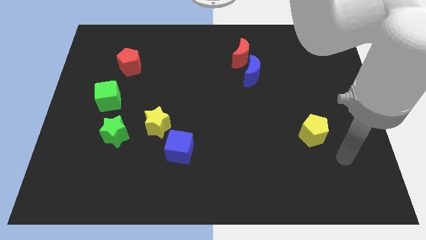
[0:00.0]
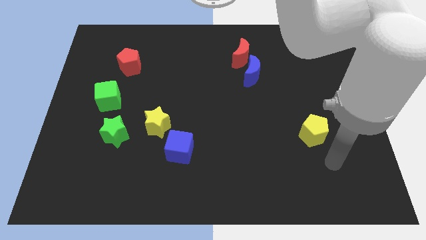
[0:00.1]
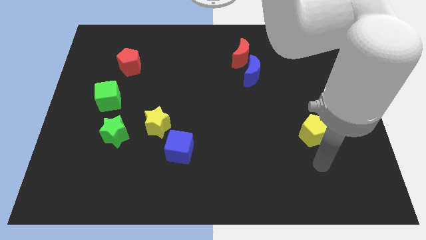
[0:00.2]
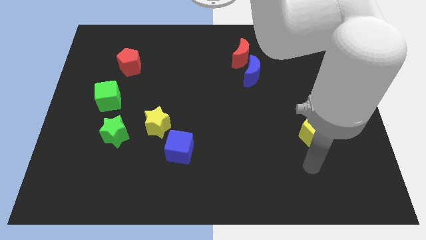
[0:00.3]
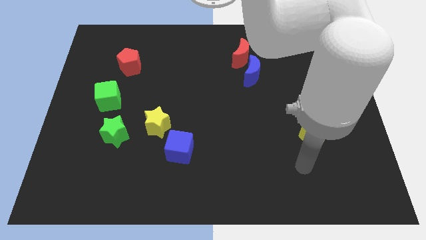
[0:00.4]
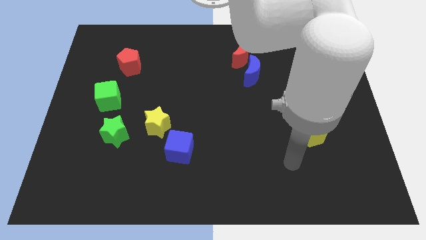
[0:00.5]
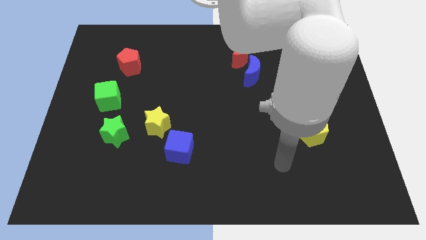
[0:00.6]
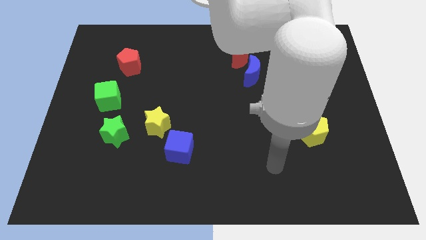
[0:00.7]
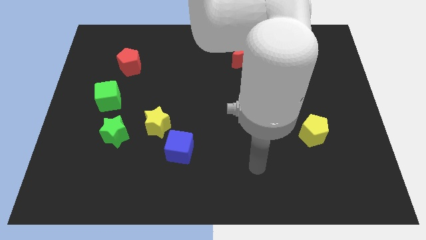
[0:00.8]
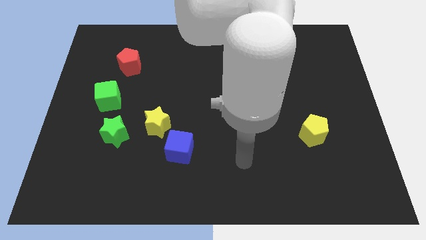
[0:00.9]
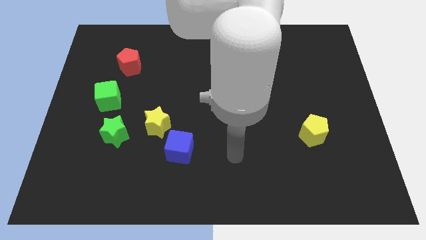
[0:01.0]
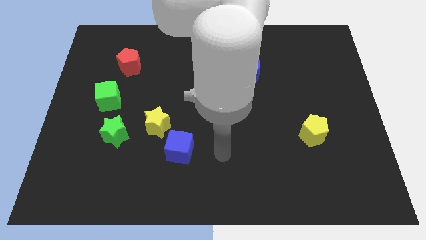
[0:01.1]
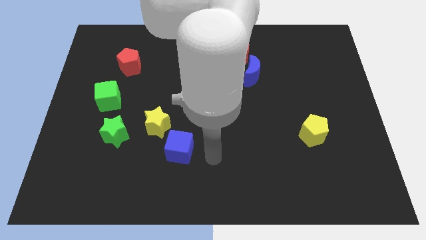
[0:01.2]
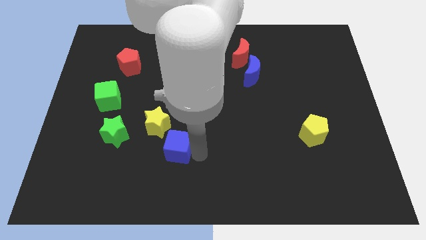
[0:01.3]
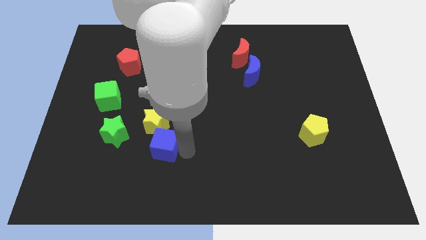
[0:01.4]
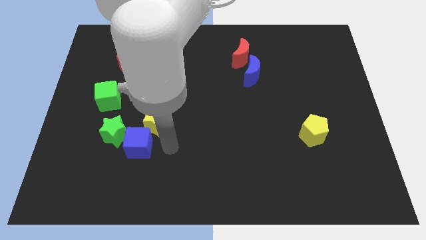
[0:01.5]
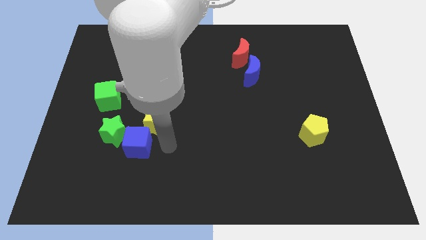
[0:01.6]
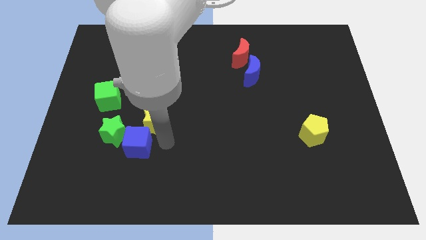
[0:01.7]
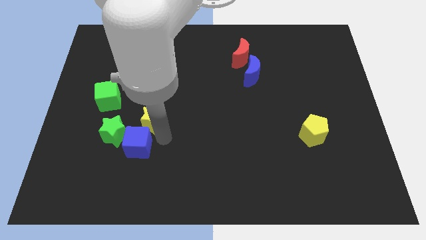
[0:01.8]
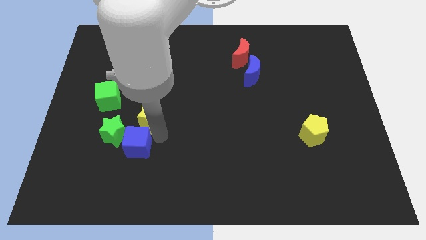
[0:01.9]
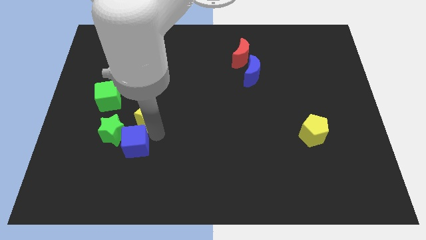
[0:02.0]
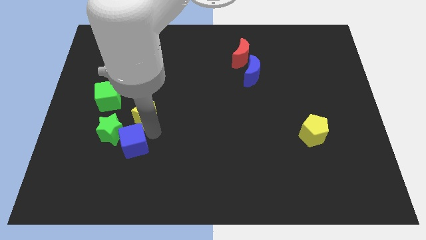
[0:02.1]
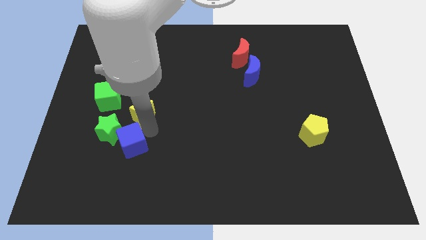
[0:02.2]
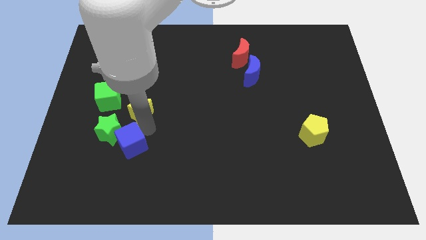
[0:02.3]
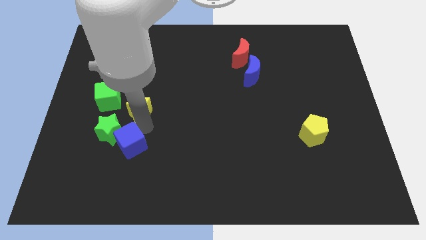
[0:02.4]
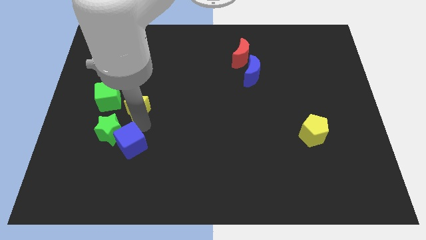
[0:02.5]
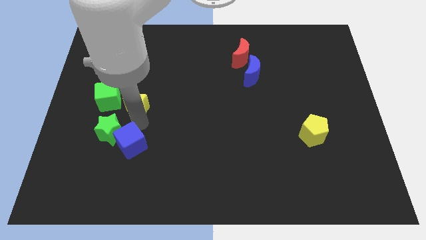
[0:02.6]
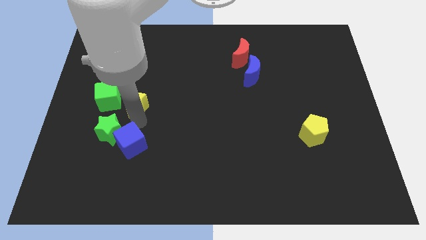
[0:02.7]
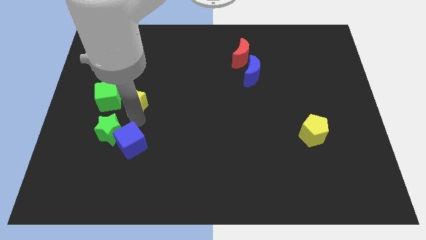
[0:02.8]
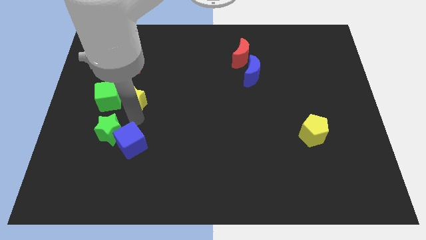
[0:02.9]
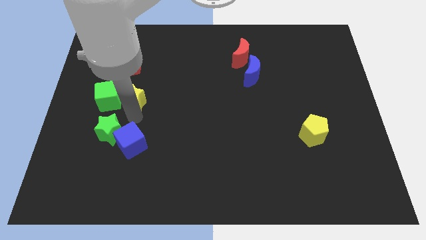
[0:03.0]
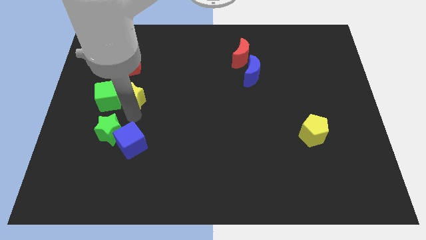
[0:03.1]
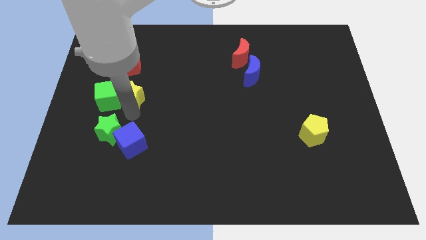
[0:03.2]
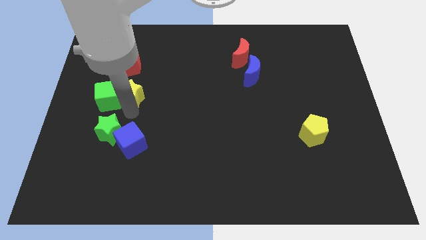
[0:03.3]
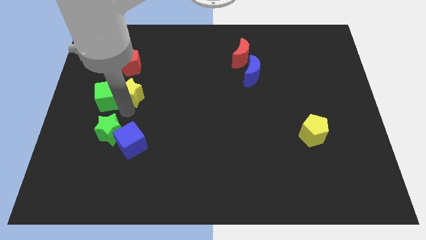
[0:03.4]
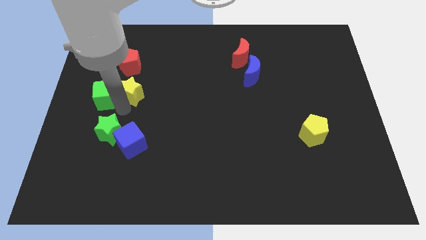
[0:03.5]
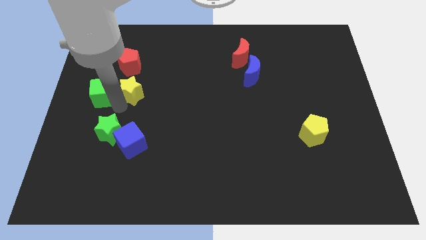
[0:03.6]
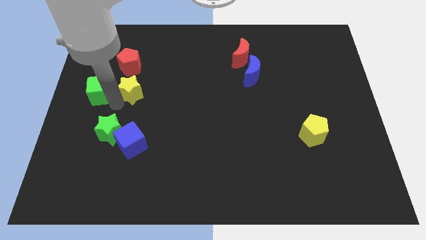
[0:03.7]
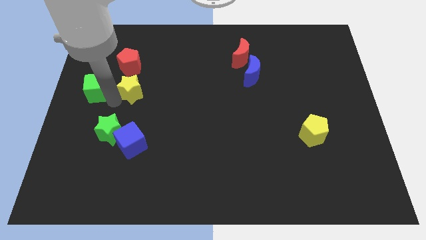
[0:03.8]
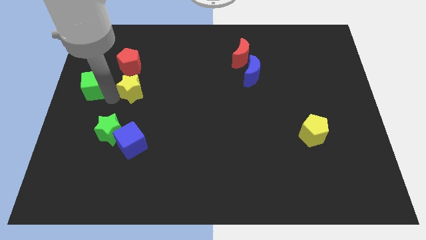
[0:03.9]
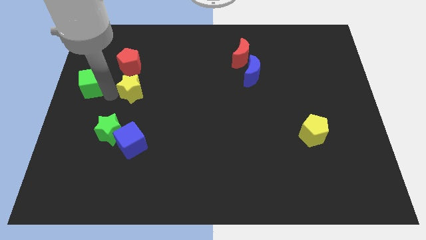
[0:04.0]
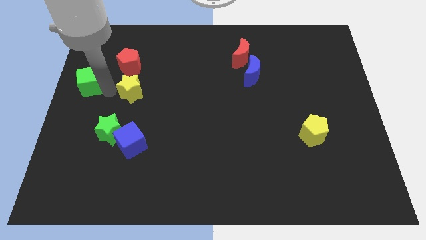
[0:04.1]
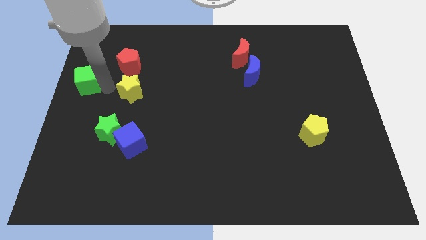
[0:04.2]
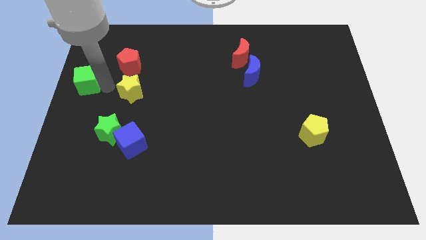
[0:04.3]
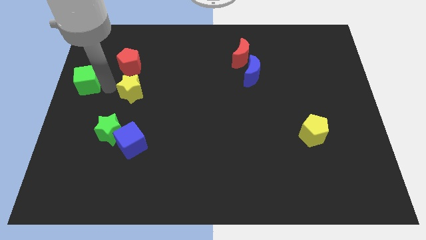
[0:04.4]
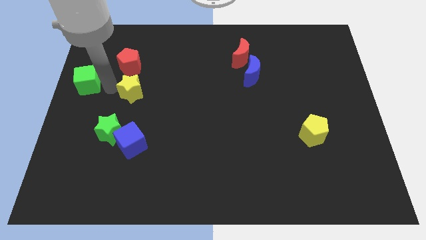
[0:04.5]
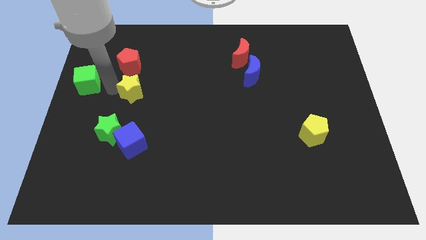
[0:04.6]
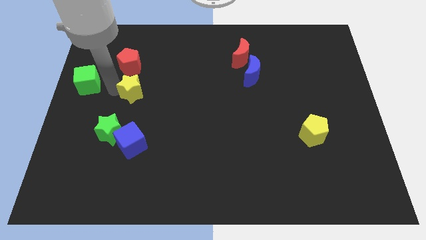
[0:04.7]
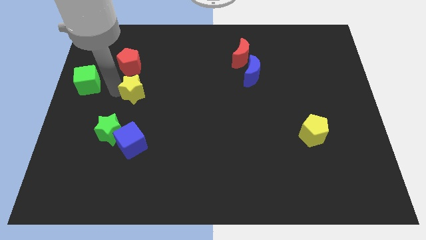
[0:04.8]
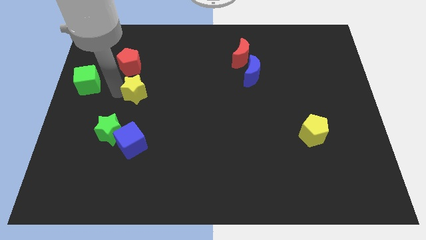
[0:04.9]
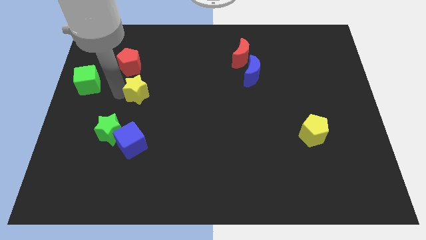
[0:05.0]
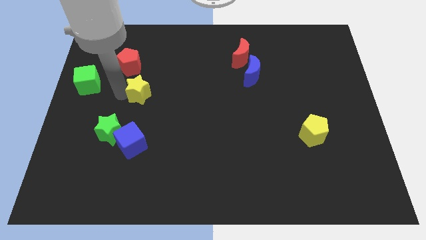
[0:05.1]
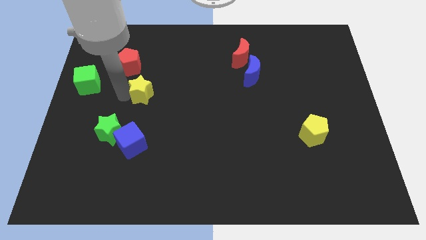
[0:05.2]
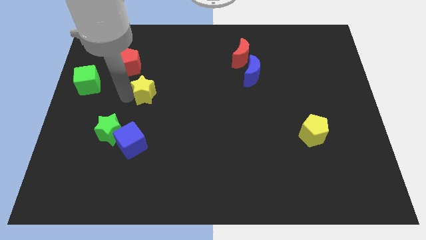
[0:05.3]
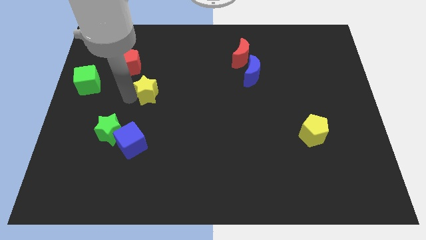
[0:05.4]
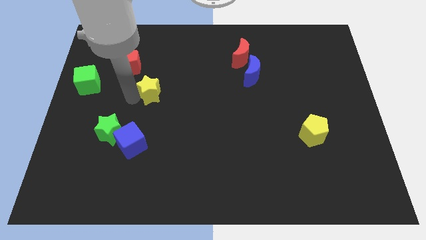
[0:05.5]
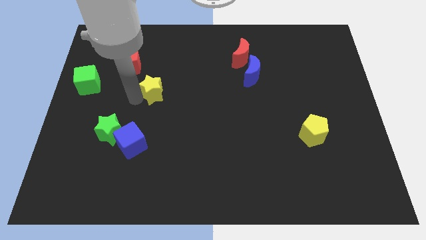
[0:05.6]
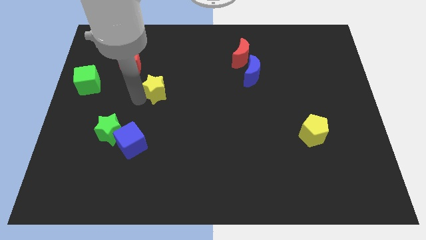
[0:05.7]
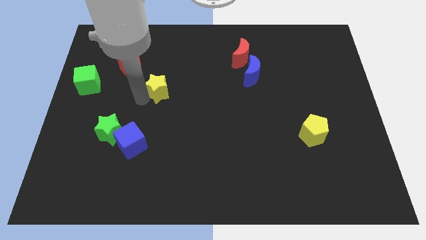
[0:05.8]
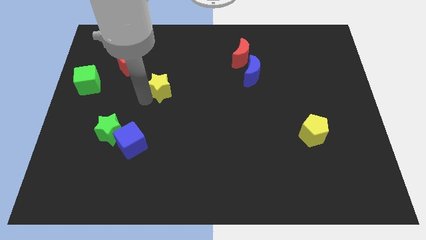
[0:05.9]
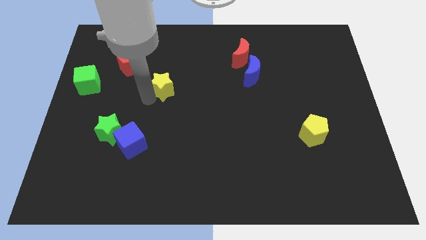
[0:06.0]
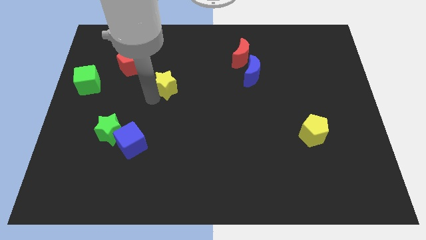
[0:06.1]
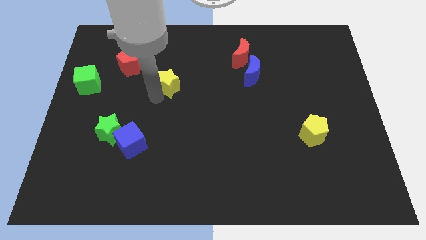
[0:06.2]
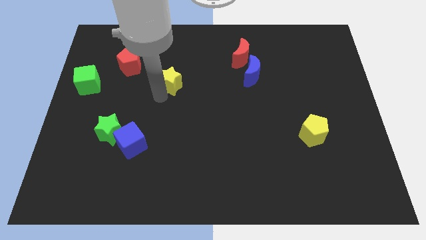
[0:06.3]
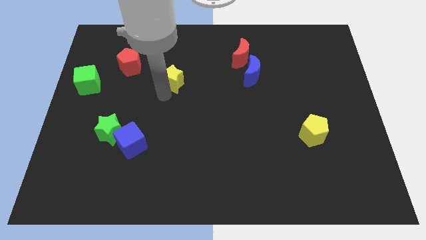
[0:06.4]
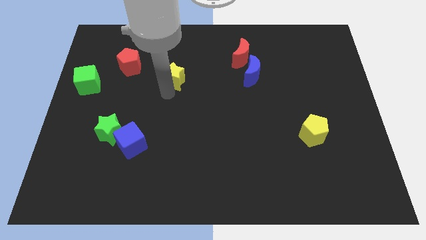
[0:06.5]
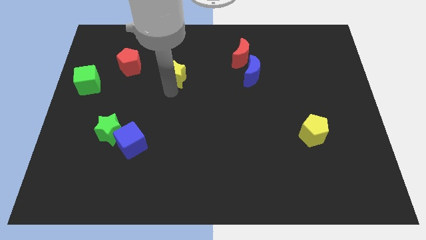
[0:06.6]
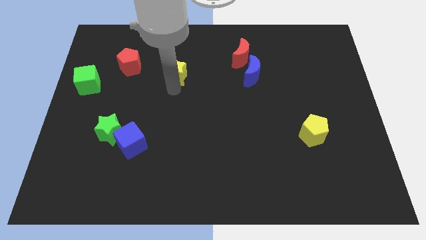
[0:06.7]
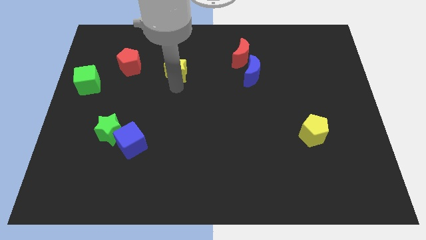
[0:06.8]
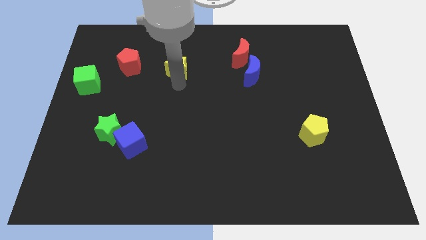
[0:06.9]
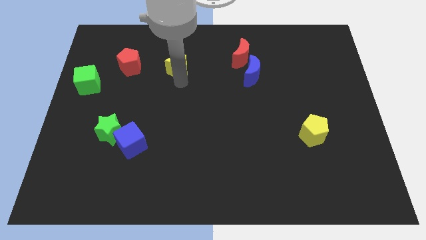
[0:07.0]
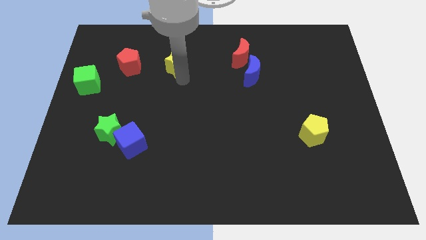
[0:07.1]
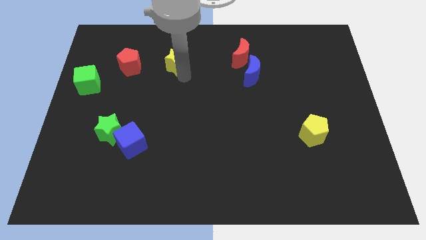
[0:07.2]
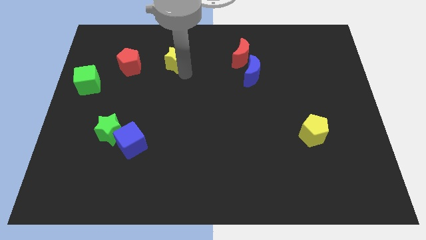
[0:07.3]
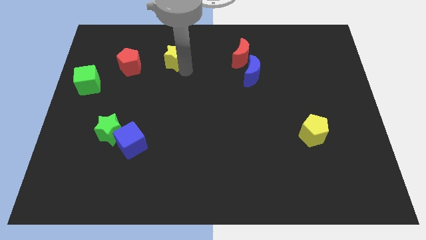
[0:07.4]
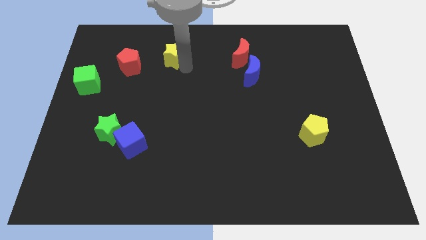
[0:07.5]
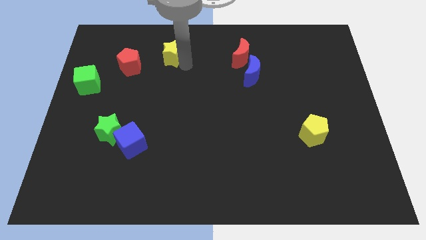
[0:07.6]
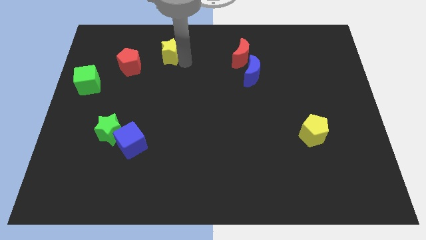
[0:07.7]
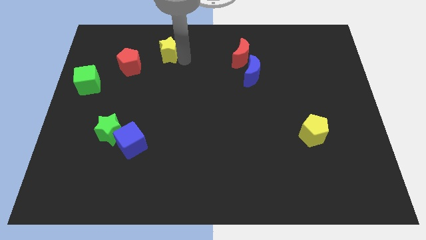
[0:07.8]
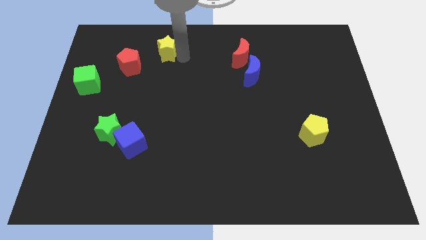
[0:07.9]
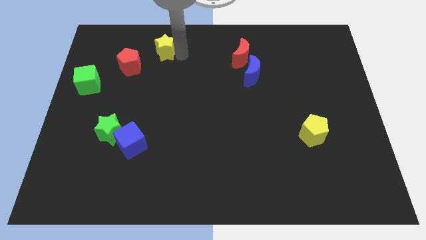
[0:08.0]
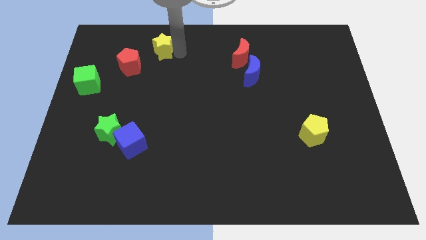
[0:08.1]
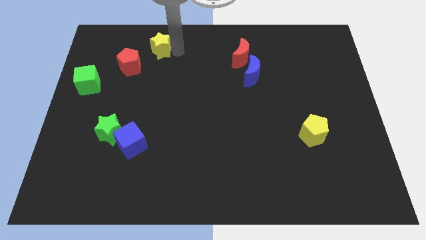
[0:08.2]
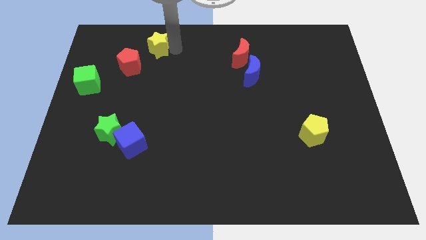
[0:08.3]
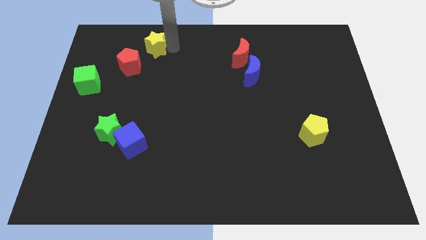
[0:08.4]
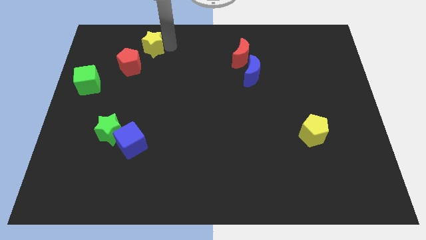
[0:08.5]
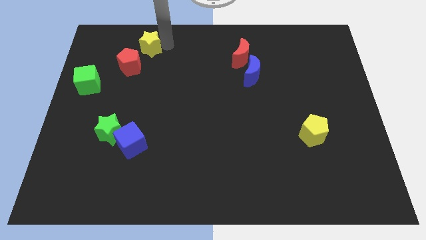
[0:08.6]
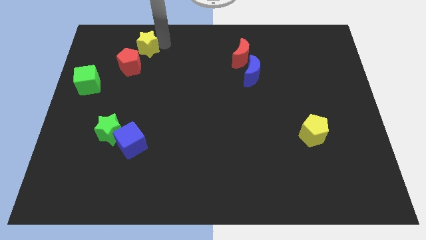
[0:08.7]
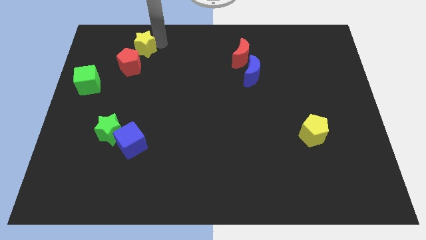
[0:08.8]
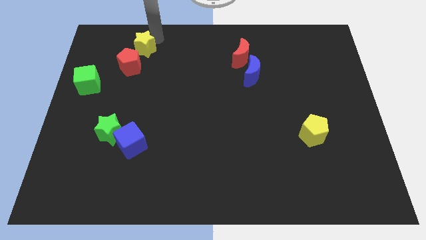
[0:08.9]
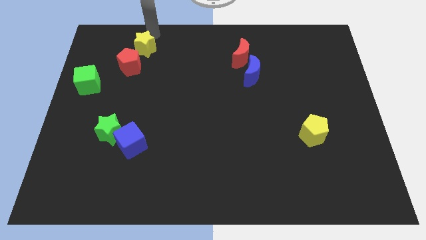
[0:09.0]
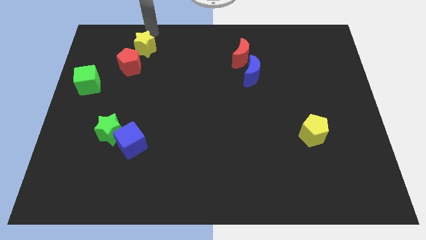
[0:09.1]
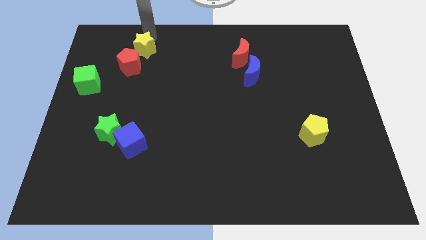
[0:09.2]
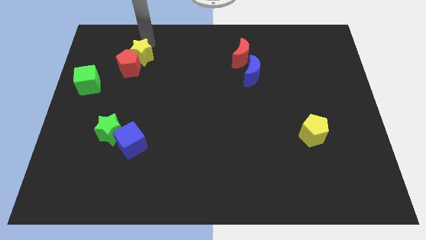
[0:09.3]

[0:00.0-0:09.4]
push the yellow star next to the red pentagon
